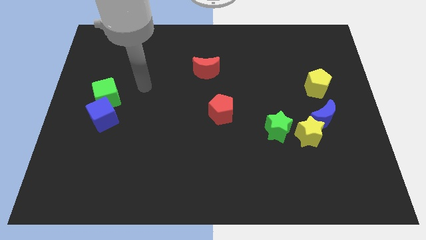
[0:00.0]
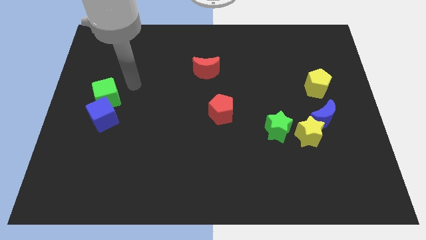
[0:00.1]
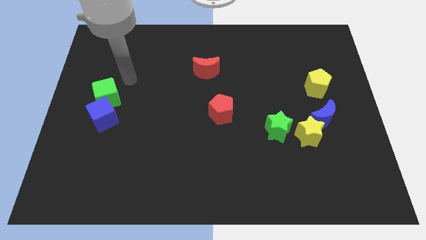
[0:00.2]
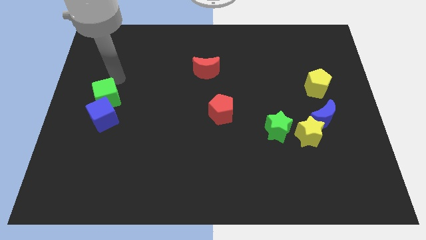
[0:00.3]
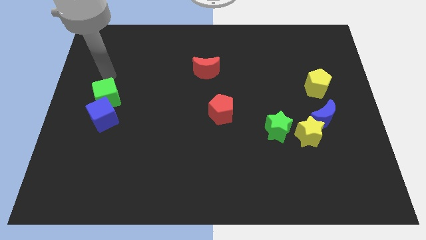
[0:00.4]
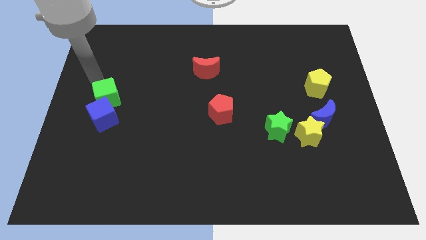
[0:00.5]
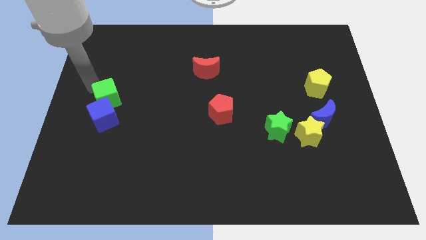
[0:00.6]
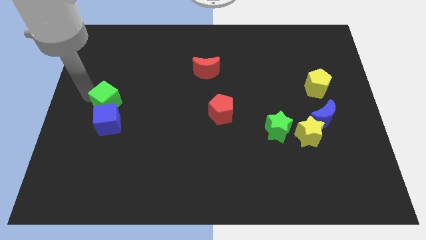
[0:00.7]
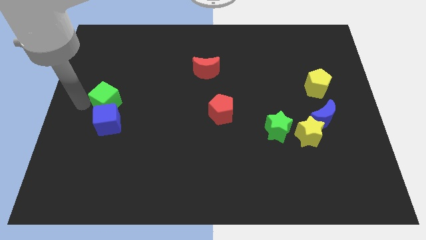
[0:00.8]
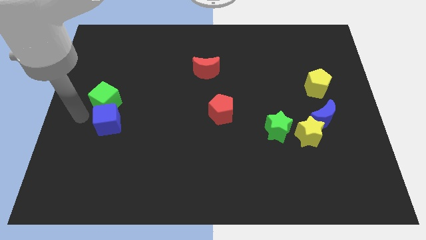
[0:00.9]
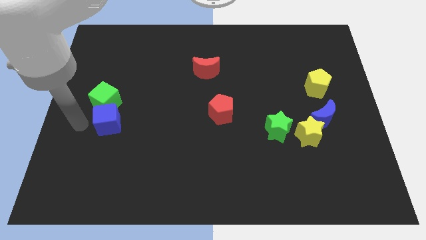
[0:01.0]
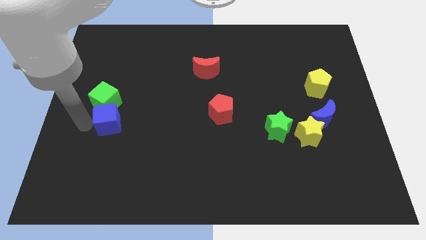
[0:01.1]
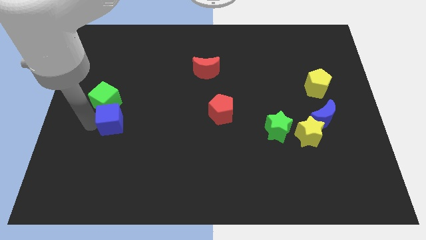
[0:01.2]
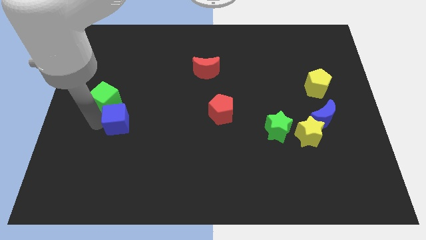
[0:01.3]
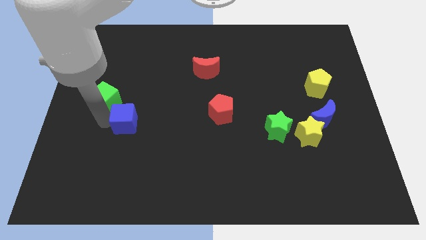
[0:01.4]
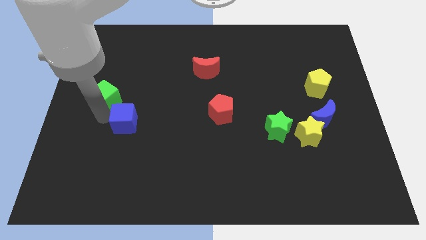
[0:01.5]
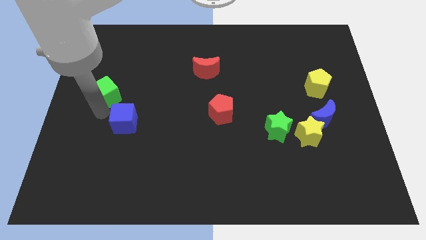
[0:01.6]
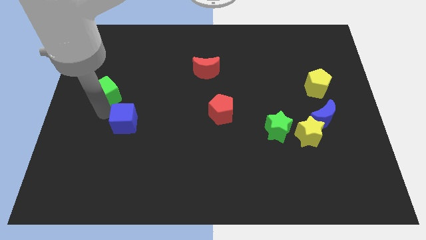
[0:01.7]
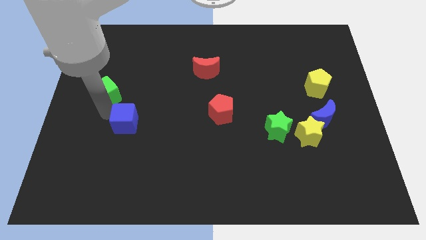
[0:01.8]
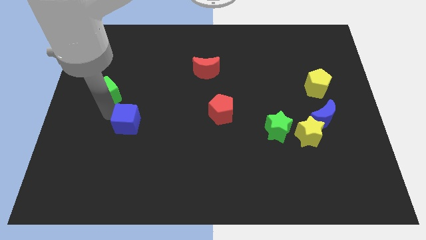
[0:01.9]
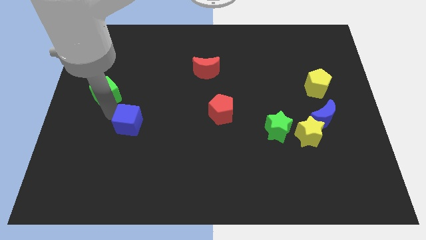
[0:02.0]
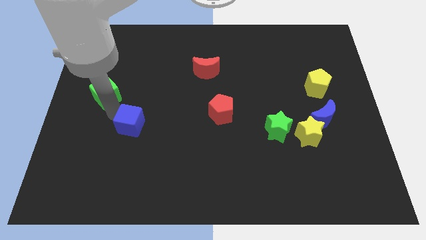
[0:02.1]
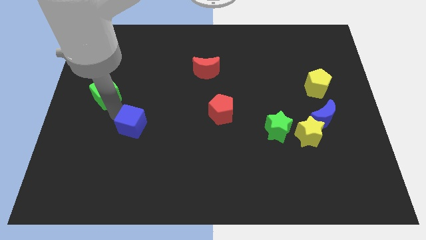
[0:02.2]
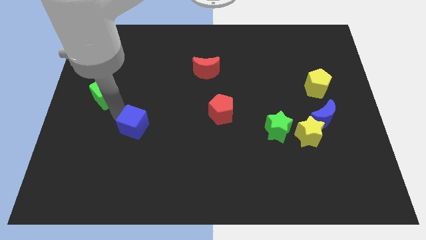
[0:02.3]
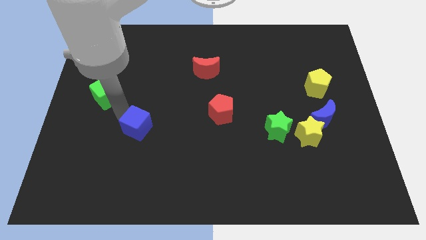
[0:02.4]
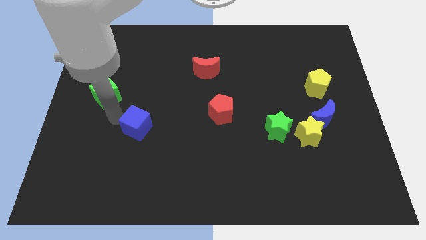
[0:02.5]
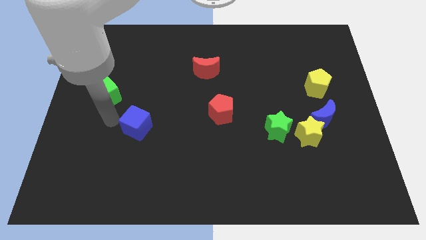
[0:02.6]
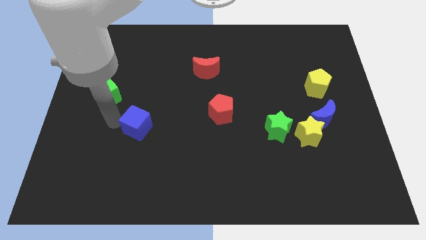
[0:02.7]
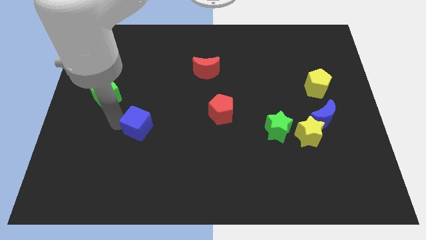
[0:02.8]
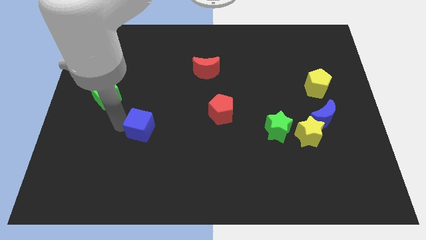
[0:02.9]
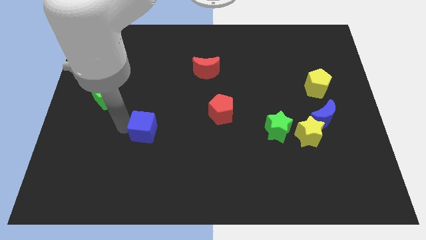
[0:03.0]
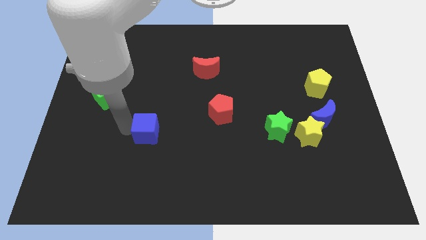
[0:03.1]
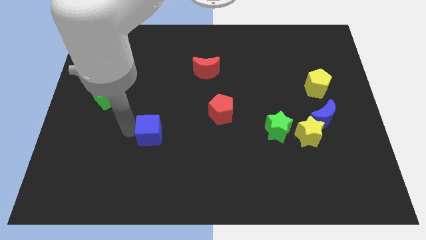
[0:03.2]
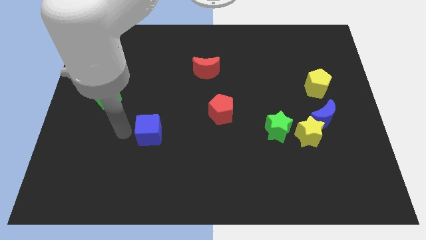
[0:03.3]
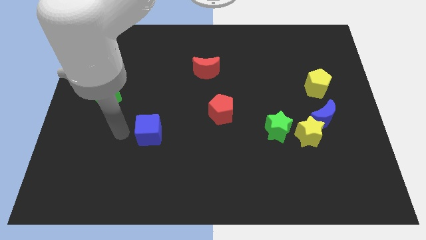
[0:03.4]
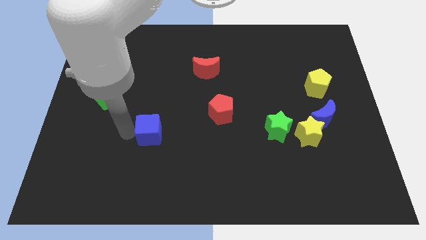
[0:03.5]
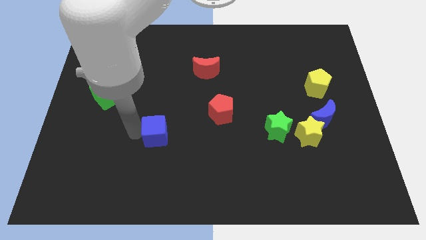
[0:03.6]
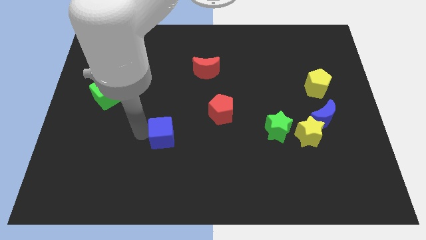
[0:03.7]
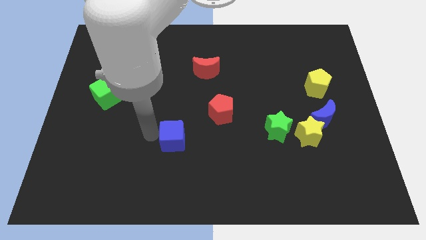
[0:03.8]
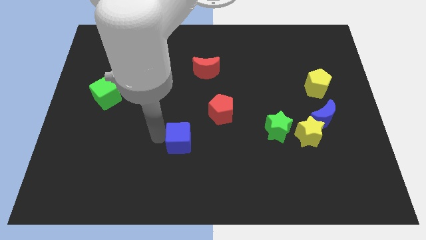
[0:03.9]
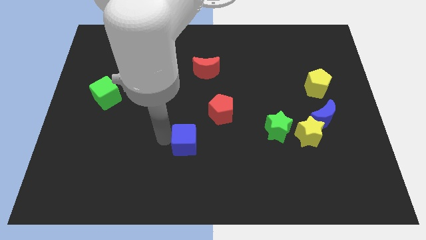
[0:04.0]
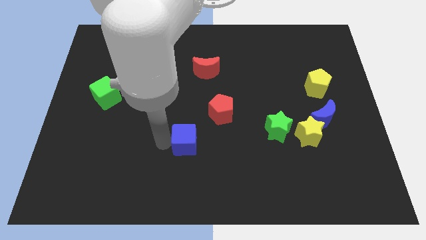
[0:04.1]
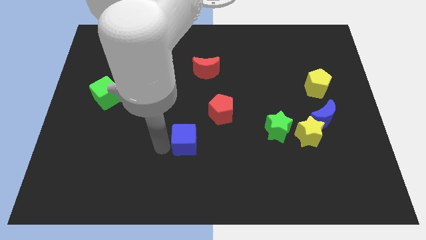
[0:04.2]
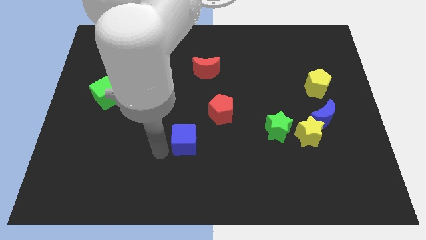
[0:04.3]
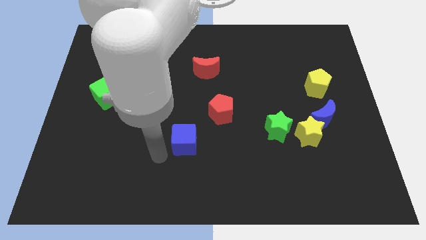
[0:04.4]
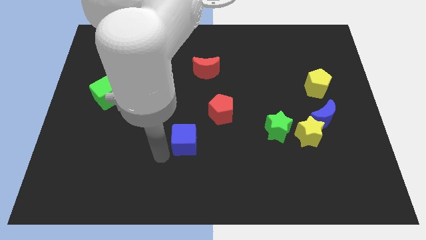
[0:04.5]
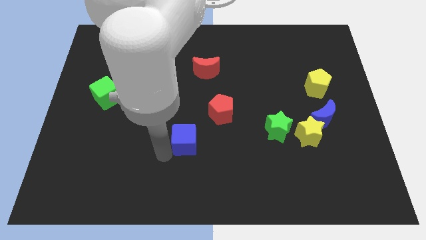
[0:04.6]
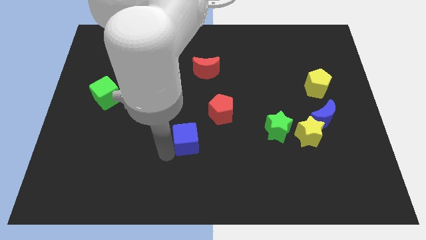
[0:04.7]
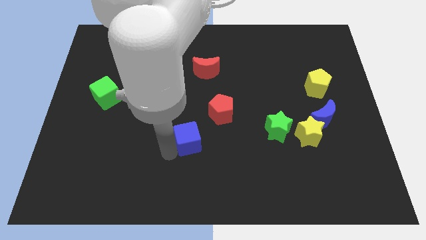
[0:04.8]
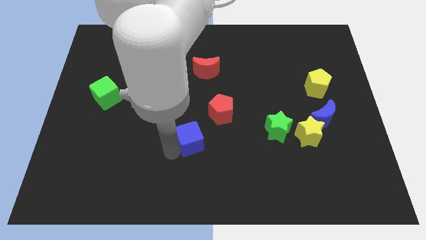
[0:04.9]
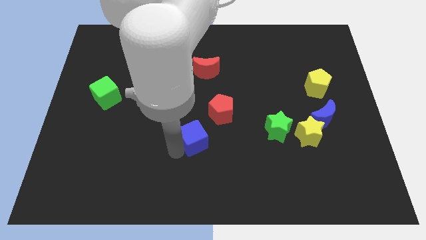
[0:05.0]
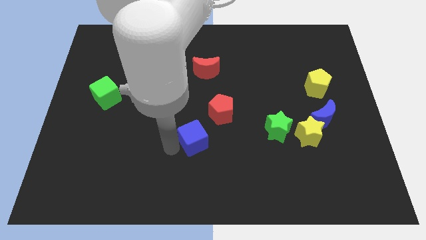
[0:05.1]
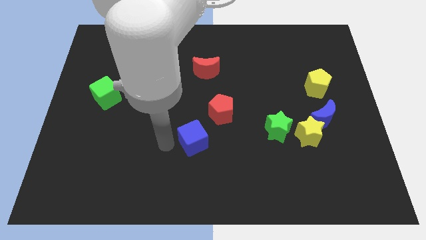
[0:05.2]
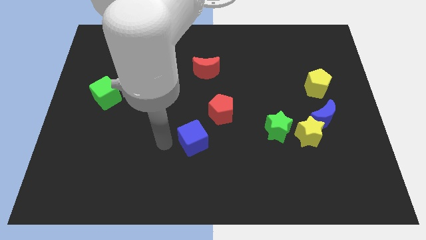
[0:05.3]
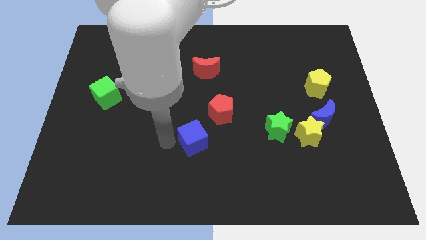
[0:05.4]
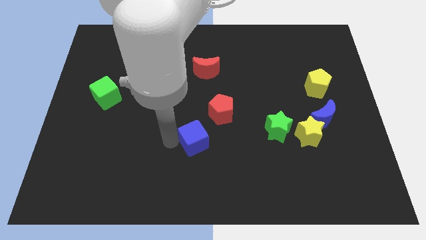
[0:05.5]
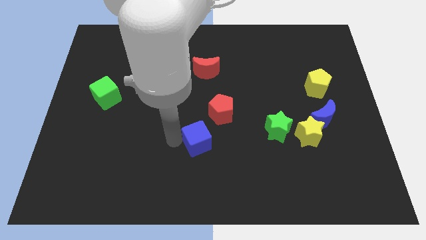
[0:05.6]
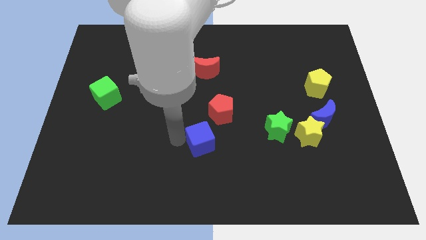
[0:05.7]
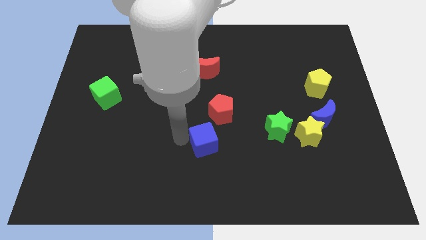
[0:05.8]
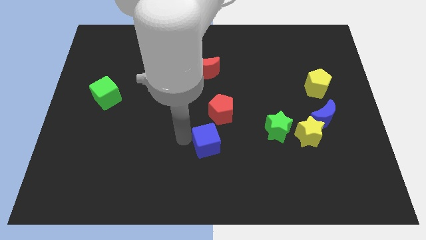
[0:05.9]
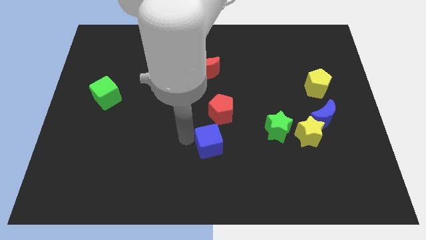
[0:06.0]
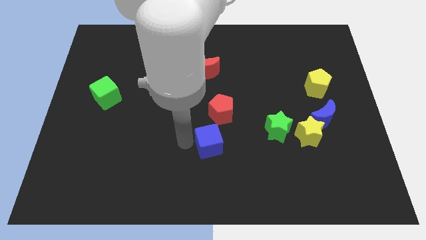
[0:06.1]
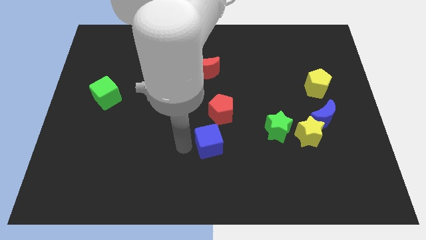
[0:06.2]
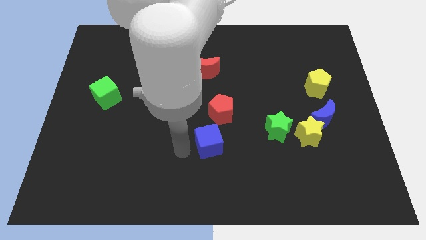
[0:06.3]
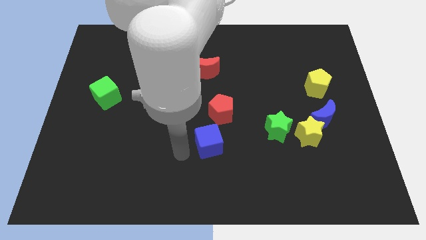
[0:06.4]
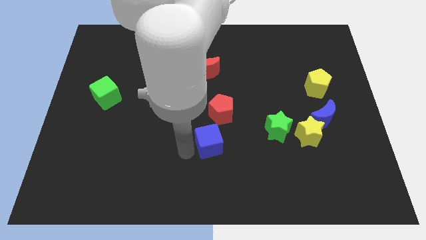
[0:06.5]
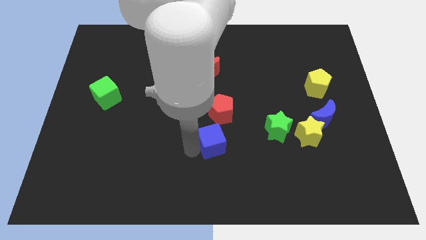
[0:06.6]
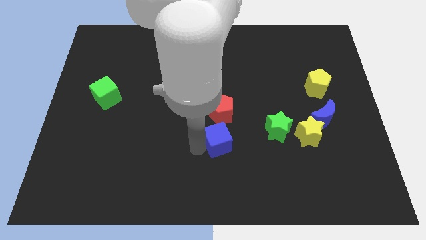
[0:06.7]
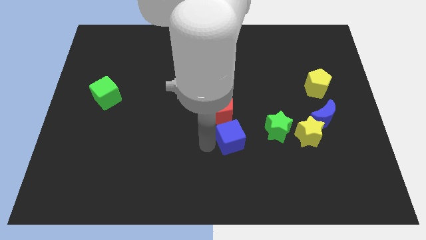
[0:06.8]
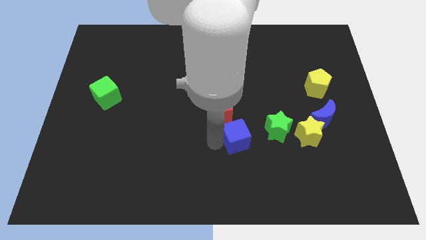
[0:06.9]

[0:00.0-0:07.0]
slide the blue cube left of the yellow star

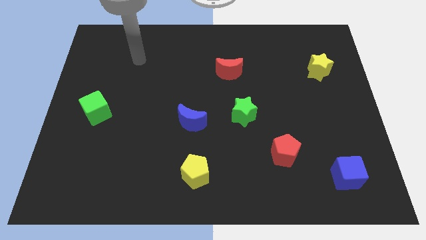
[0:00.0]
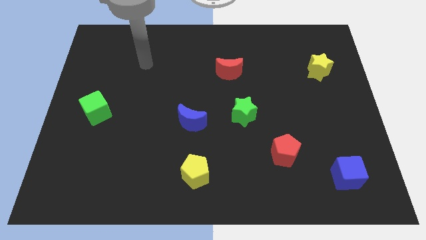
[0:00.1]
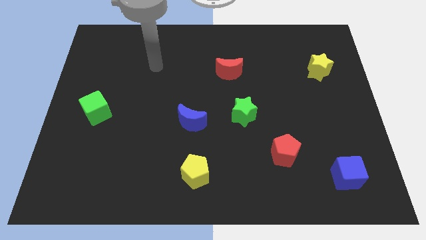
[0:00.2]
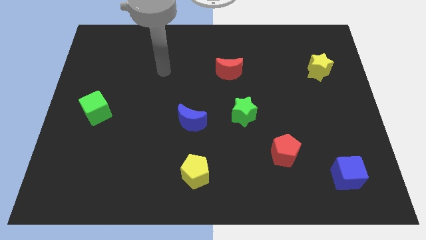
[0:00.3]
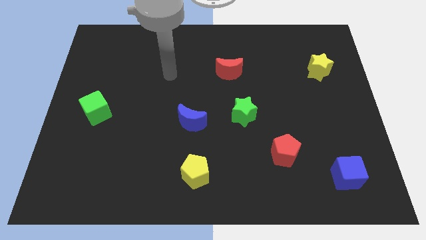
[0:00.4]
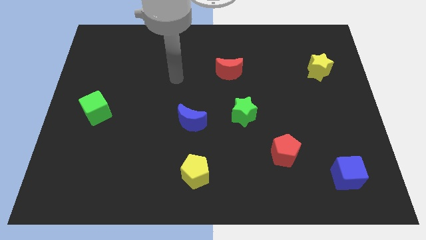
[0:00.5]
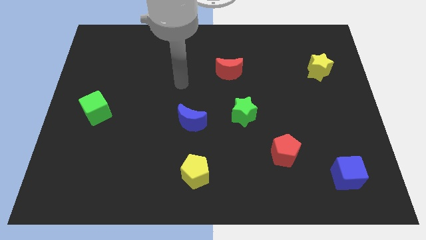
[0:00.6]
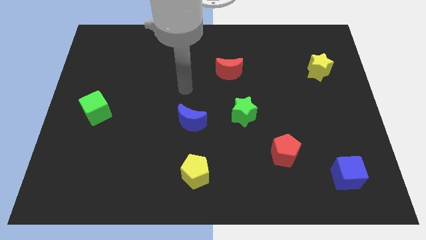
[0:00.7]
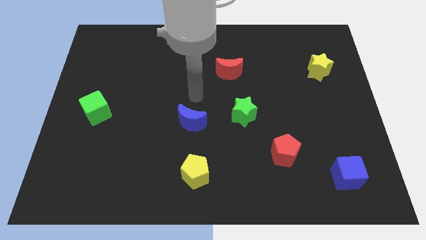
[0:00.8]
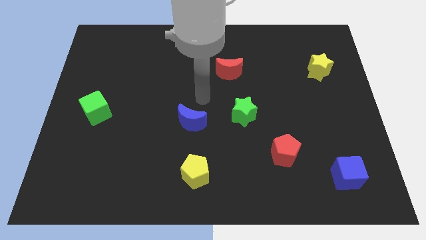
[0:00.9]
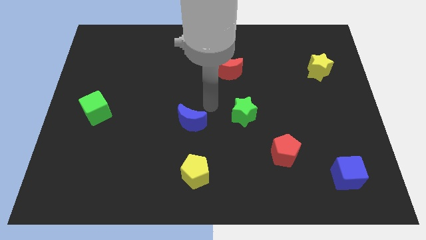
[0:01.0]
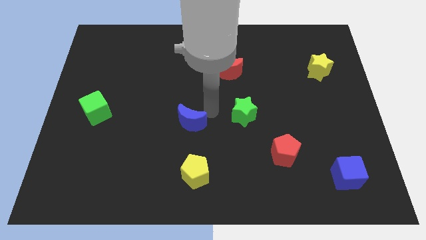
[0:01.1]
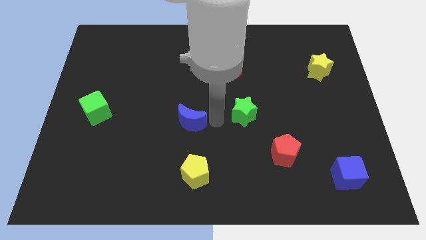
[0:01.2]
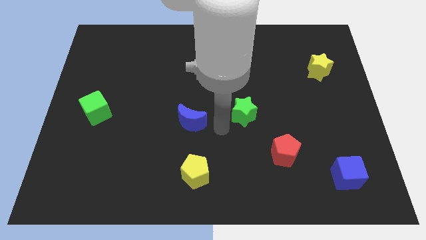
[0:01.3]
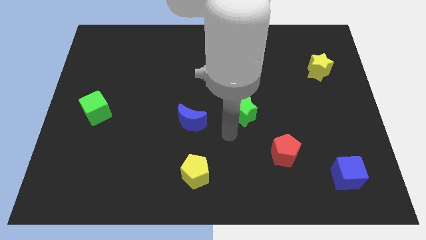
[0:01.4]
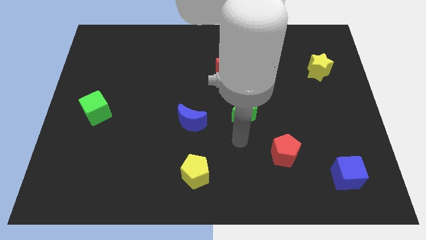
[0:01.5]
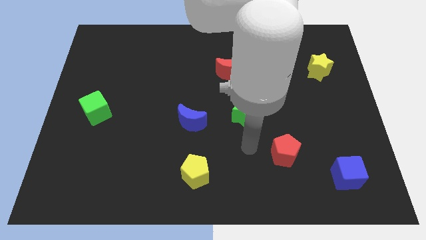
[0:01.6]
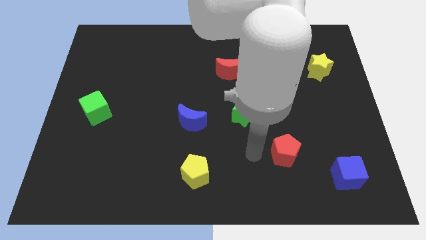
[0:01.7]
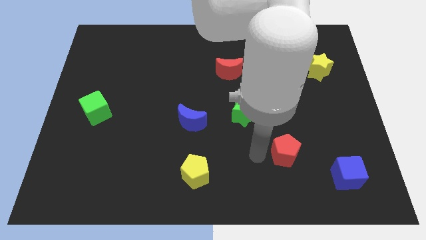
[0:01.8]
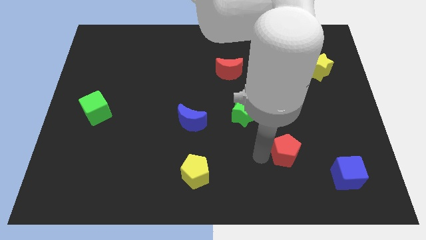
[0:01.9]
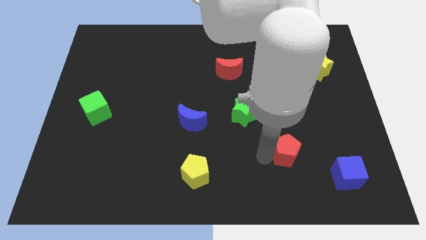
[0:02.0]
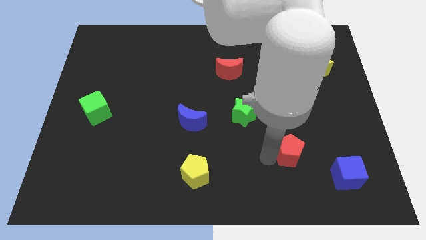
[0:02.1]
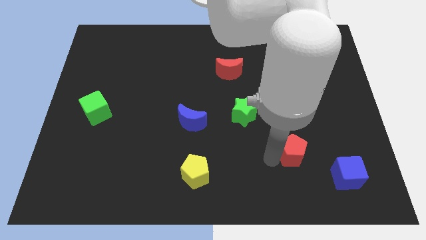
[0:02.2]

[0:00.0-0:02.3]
push the red pentagon to the top left side of the blue cube
